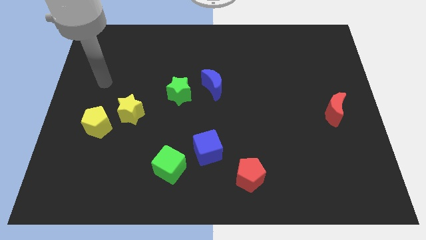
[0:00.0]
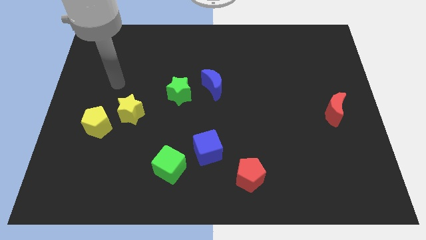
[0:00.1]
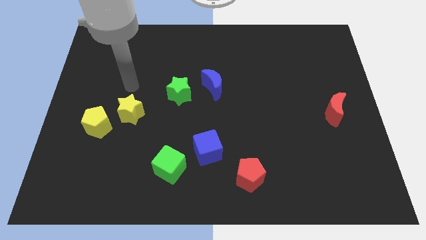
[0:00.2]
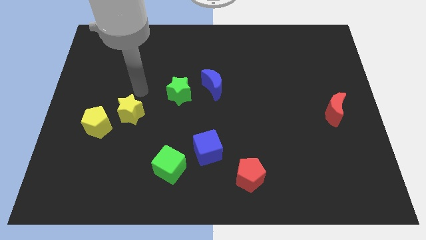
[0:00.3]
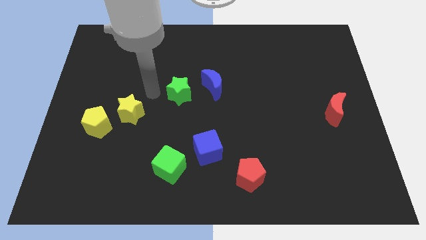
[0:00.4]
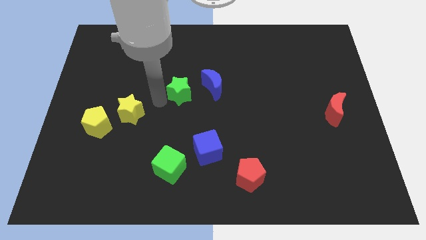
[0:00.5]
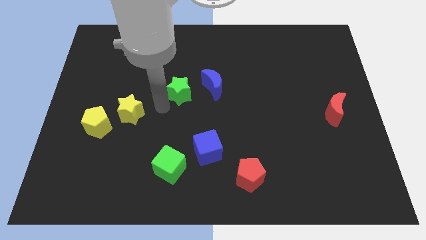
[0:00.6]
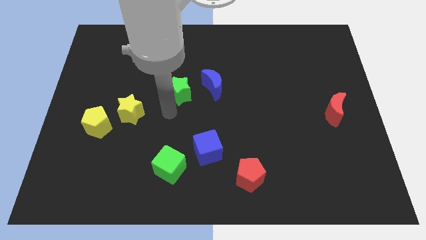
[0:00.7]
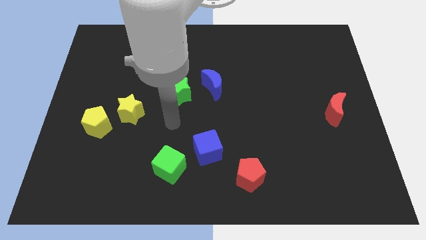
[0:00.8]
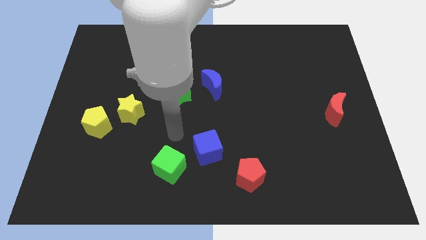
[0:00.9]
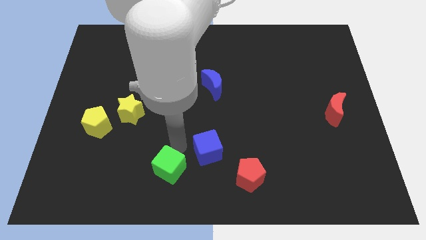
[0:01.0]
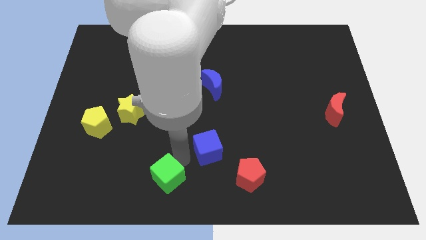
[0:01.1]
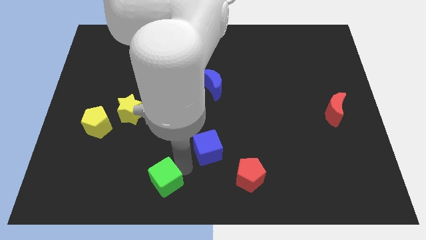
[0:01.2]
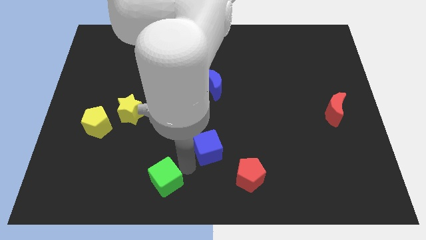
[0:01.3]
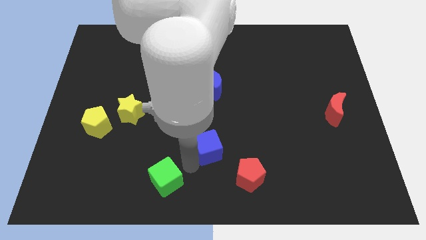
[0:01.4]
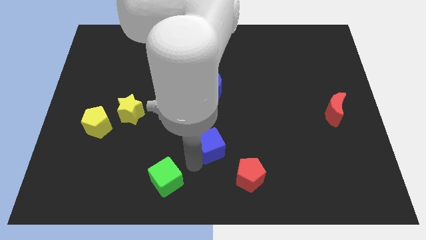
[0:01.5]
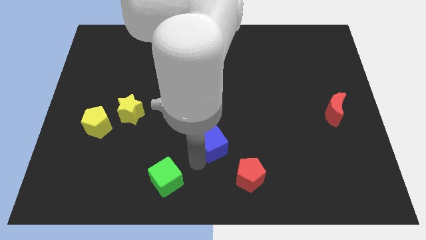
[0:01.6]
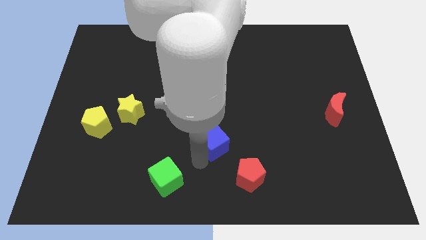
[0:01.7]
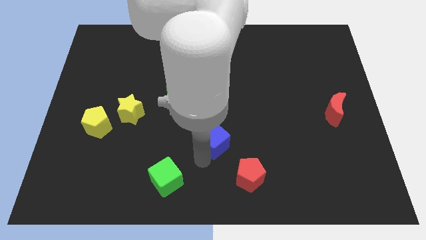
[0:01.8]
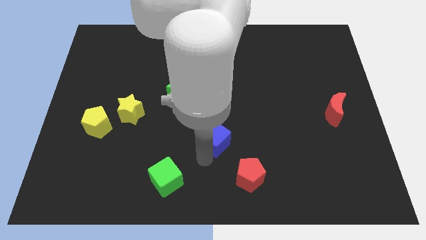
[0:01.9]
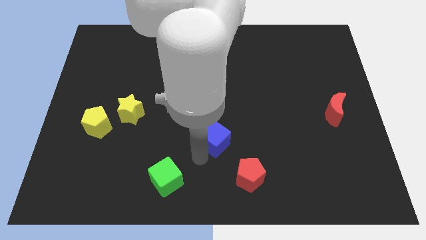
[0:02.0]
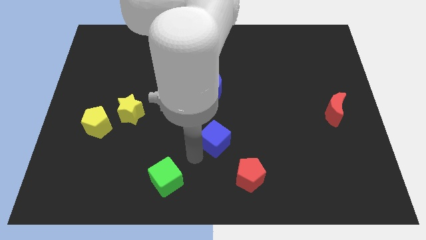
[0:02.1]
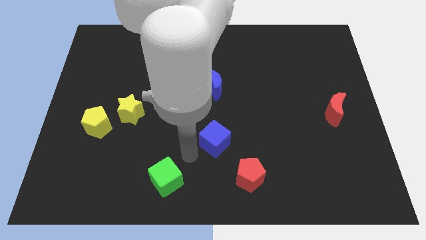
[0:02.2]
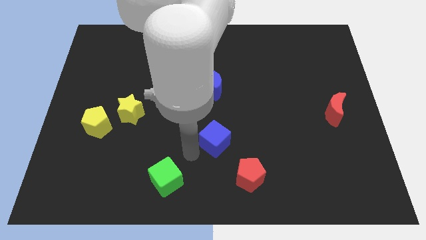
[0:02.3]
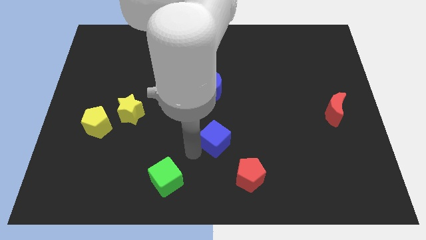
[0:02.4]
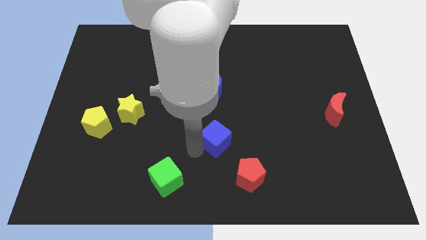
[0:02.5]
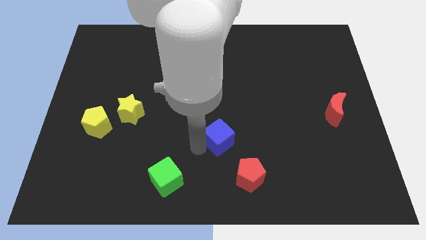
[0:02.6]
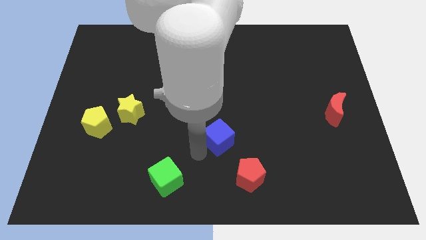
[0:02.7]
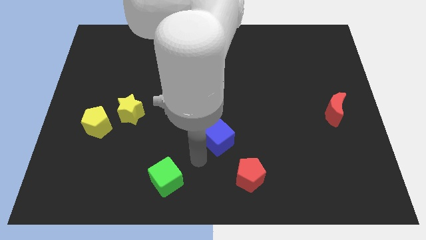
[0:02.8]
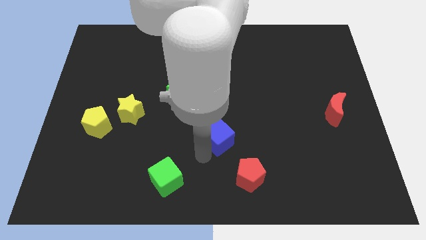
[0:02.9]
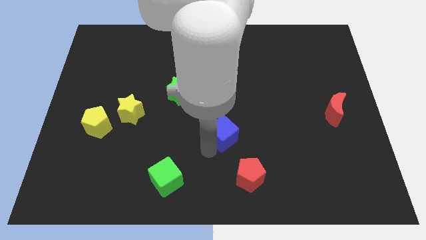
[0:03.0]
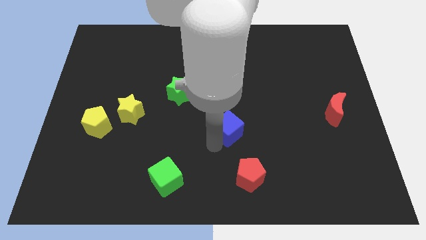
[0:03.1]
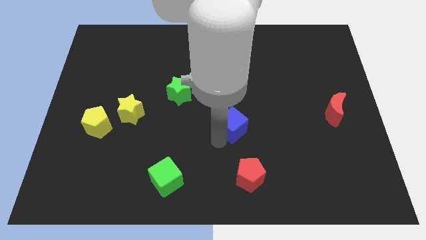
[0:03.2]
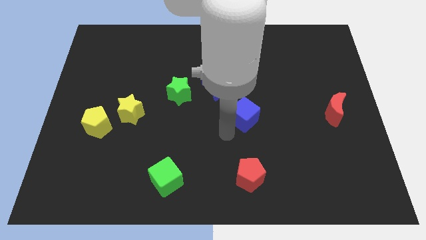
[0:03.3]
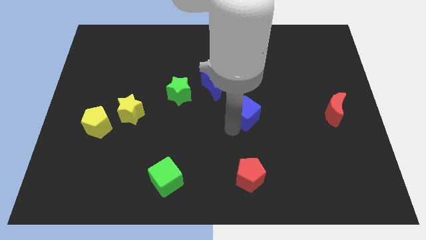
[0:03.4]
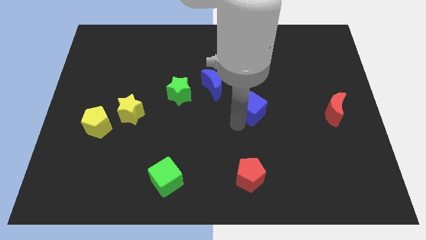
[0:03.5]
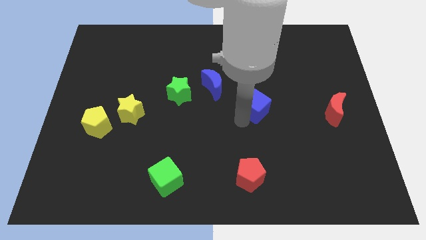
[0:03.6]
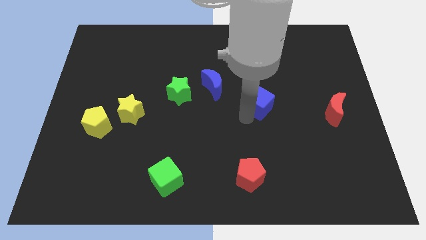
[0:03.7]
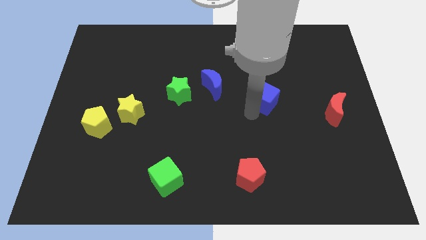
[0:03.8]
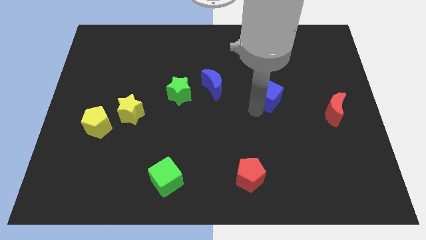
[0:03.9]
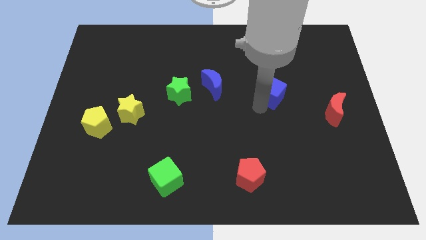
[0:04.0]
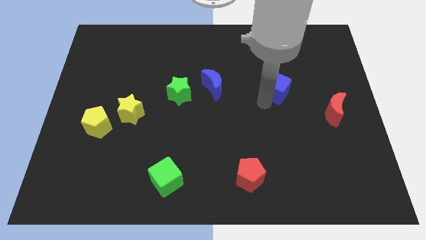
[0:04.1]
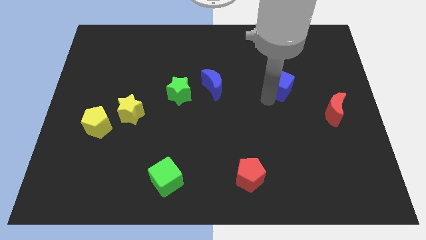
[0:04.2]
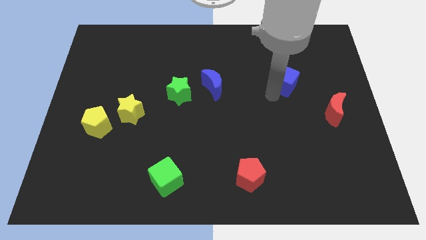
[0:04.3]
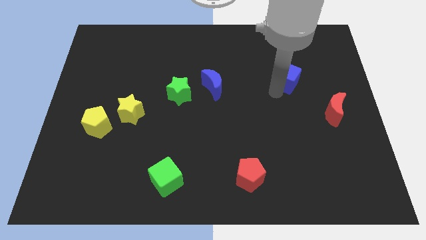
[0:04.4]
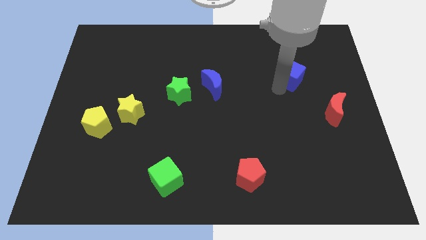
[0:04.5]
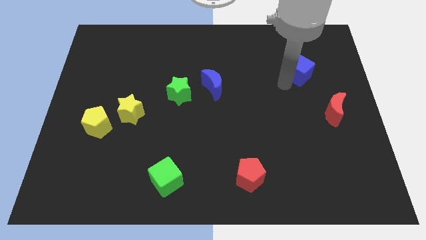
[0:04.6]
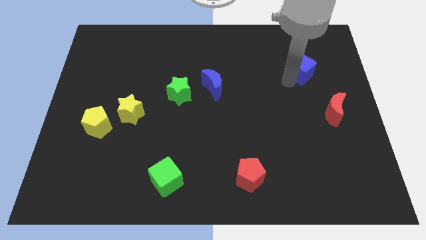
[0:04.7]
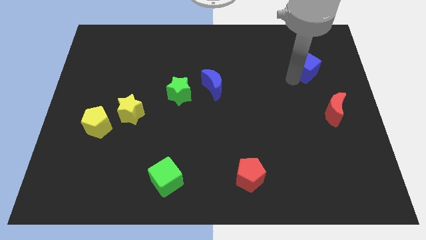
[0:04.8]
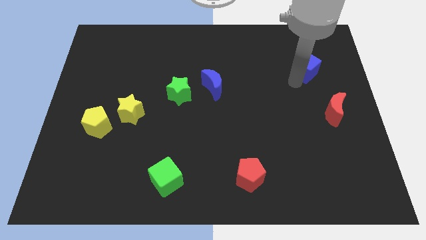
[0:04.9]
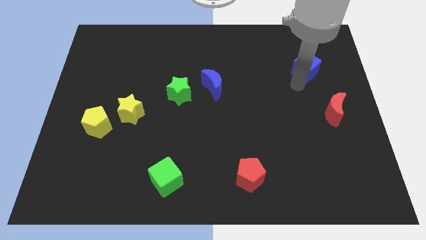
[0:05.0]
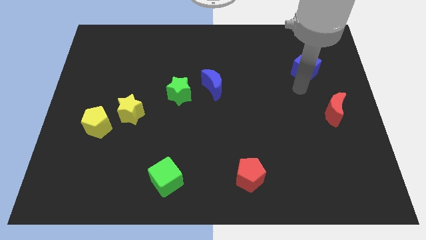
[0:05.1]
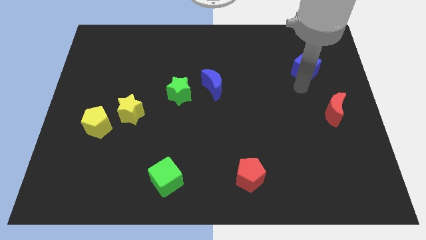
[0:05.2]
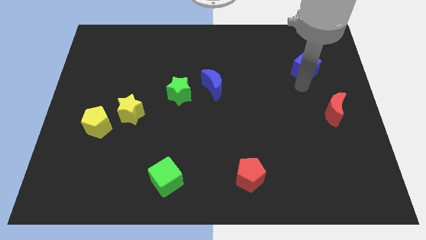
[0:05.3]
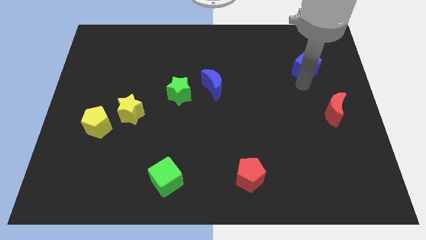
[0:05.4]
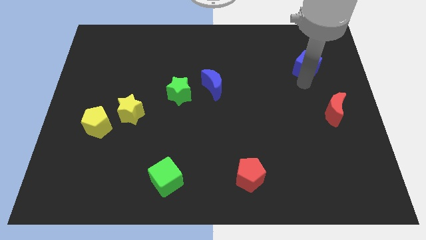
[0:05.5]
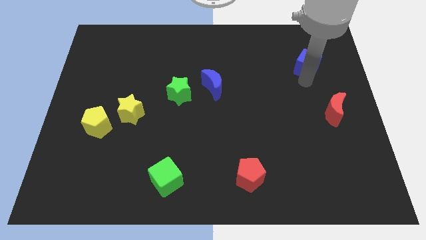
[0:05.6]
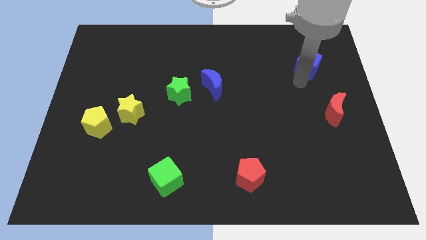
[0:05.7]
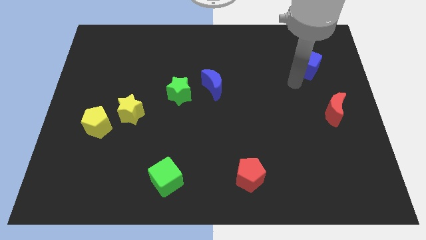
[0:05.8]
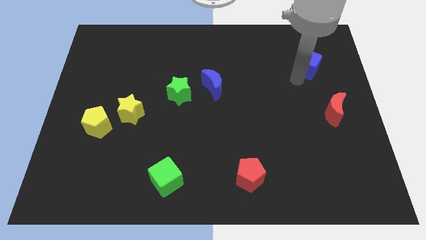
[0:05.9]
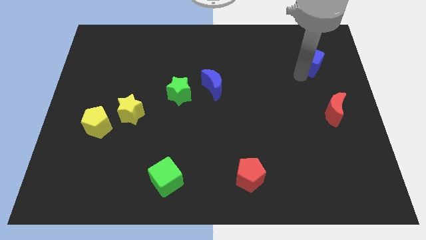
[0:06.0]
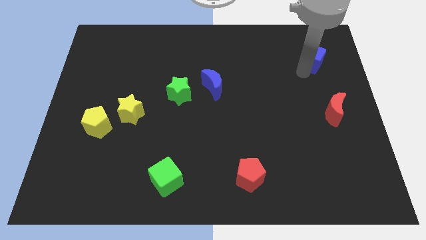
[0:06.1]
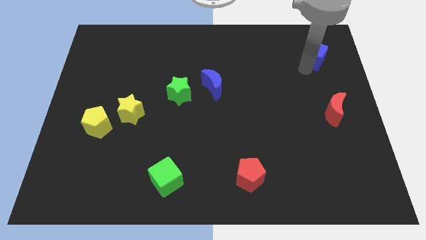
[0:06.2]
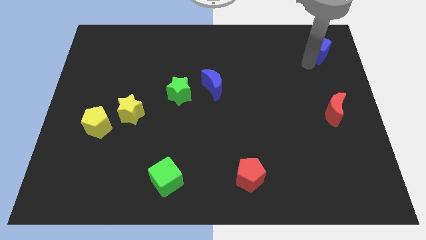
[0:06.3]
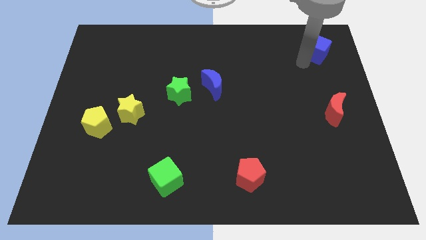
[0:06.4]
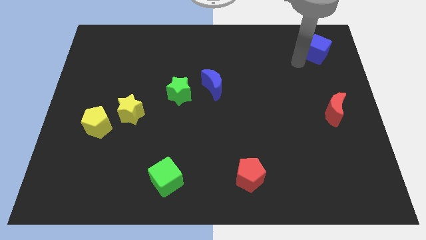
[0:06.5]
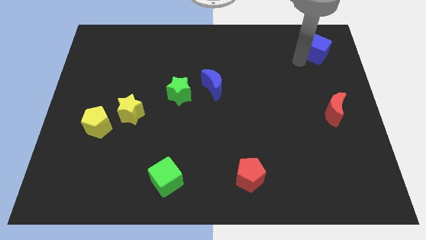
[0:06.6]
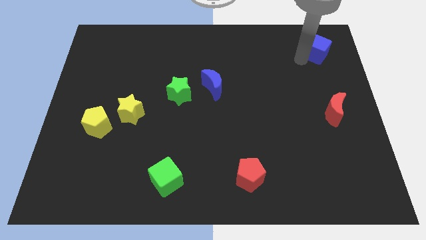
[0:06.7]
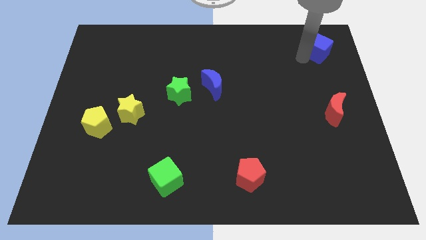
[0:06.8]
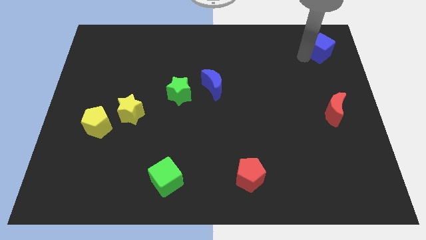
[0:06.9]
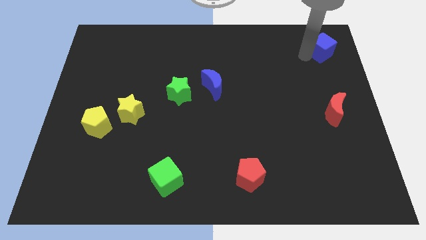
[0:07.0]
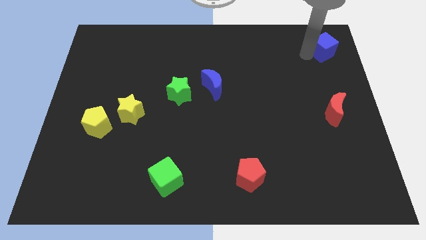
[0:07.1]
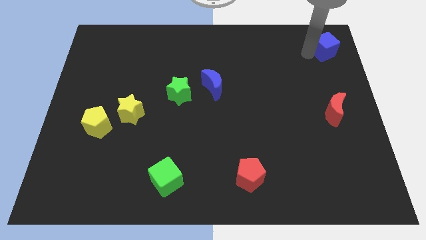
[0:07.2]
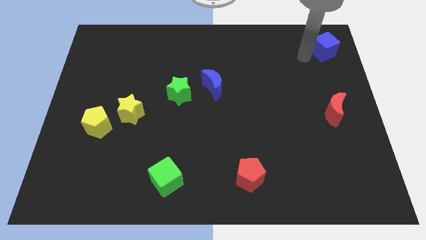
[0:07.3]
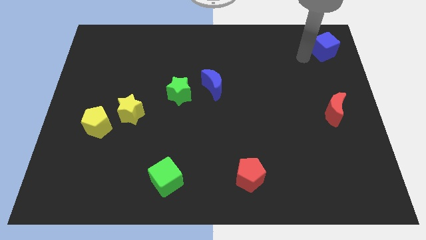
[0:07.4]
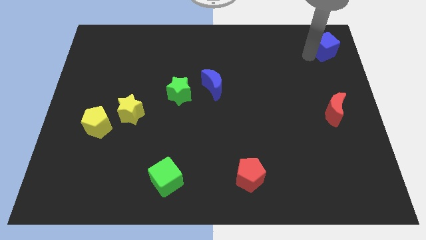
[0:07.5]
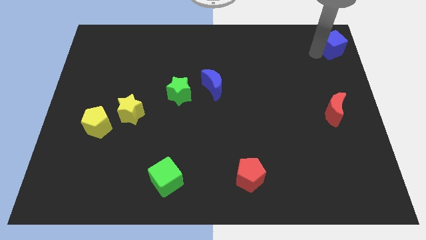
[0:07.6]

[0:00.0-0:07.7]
move the blue cube to the upper right corner

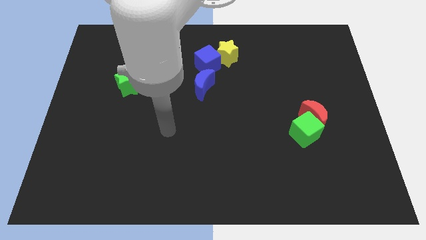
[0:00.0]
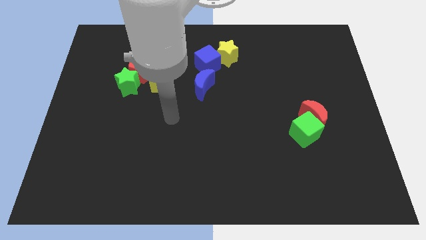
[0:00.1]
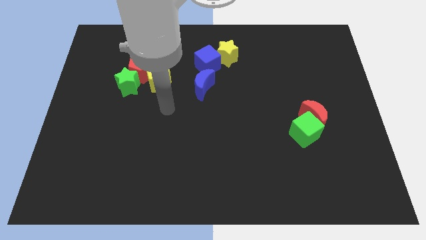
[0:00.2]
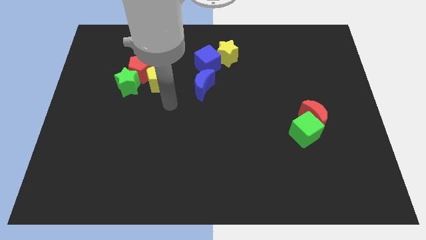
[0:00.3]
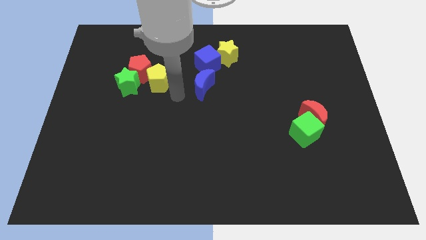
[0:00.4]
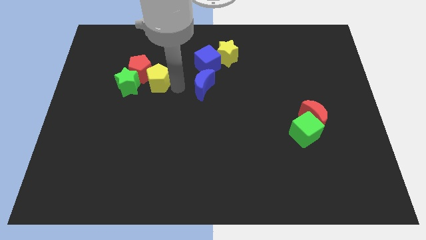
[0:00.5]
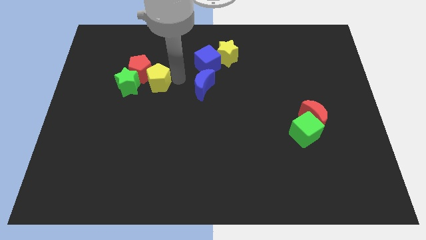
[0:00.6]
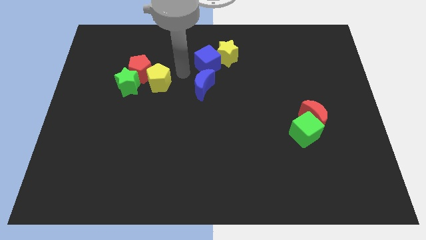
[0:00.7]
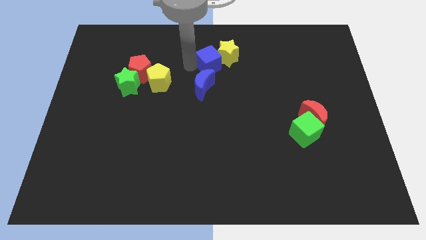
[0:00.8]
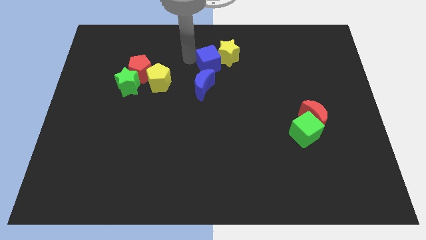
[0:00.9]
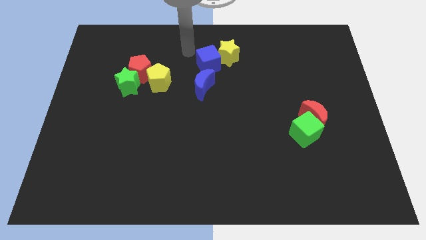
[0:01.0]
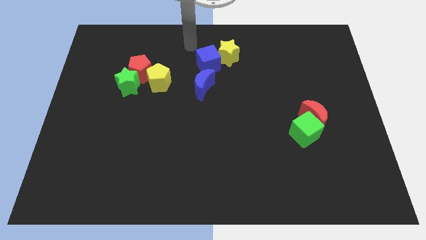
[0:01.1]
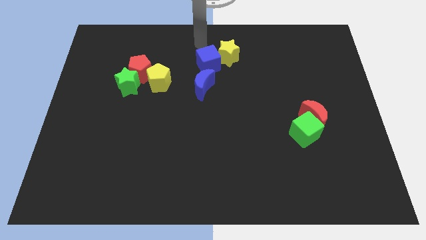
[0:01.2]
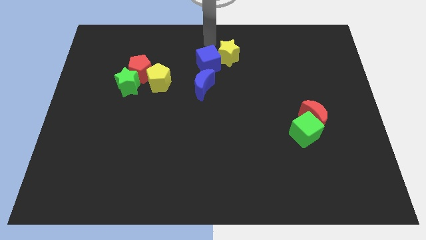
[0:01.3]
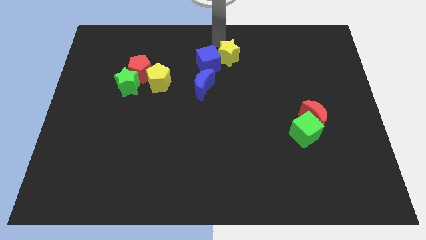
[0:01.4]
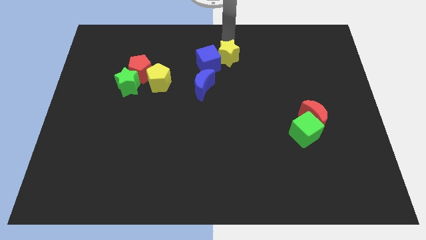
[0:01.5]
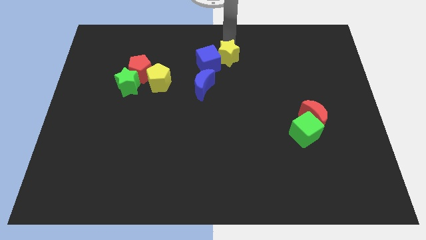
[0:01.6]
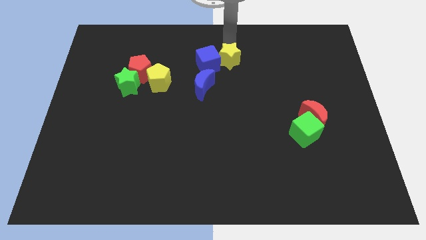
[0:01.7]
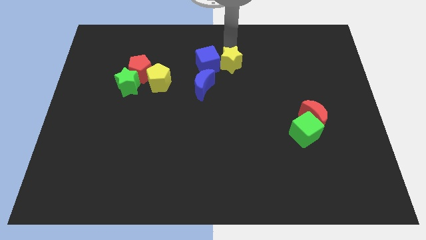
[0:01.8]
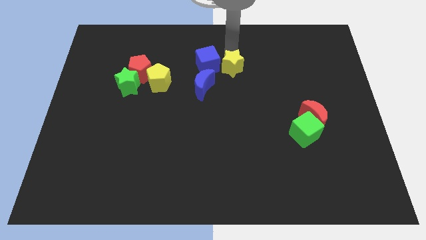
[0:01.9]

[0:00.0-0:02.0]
put the yellow star to the center of the board
